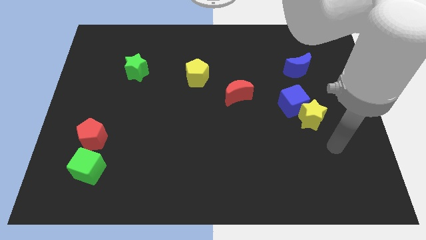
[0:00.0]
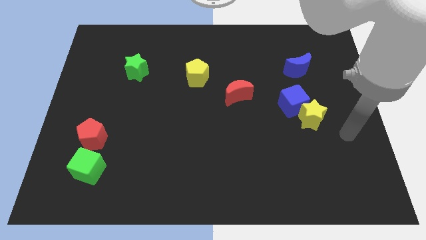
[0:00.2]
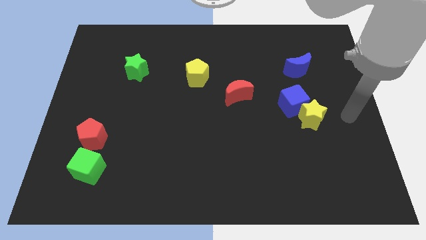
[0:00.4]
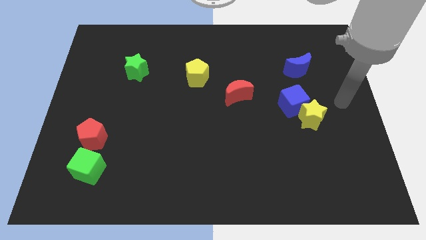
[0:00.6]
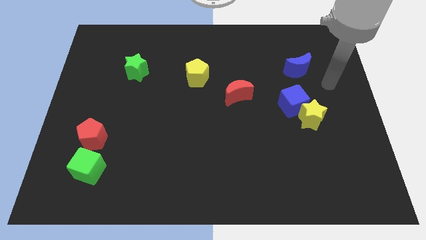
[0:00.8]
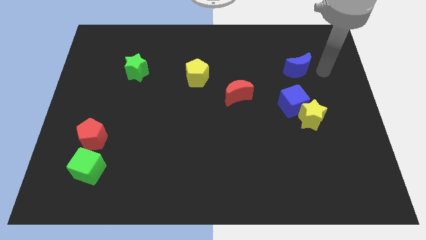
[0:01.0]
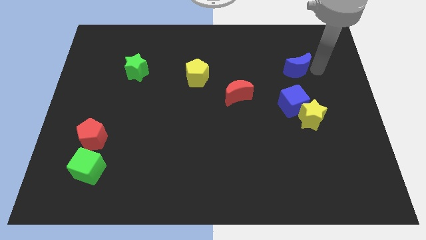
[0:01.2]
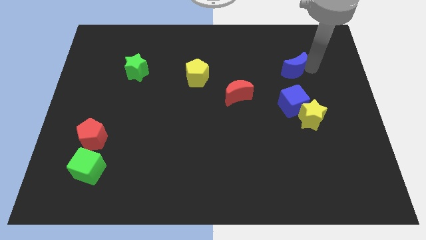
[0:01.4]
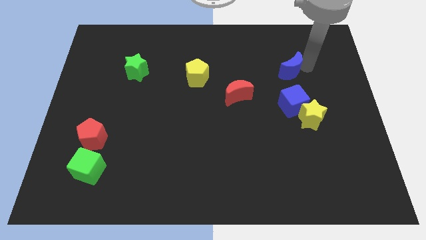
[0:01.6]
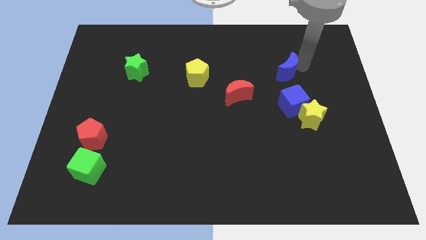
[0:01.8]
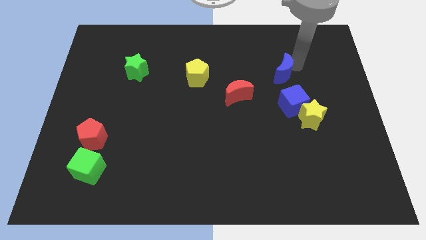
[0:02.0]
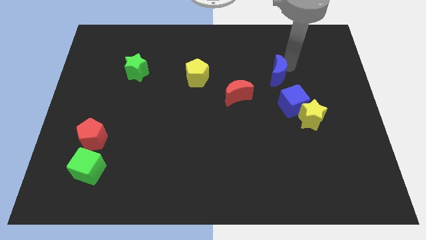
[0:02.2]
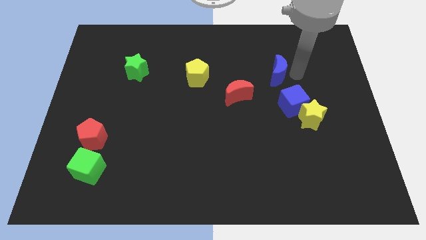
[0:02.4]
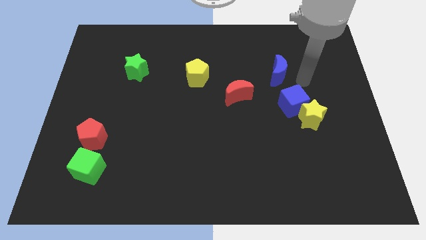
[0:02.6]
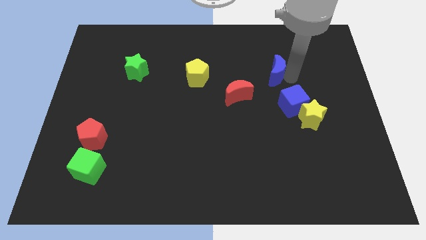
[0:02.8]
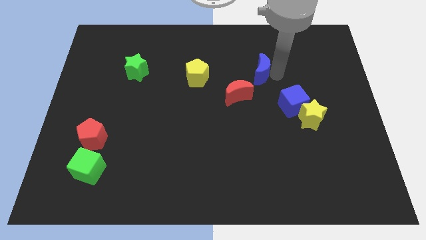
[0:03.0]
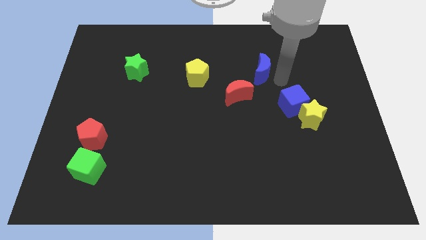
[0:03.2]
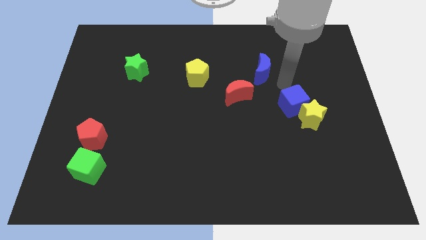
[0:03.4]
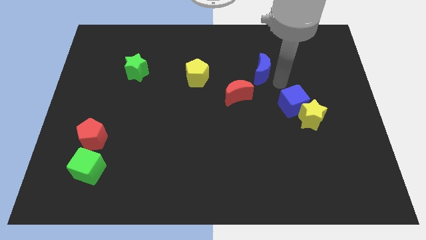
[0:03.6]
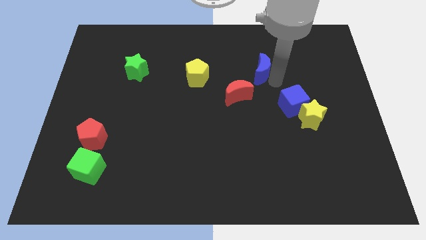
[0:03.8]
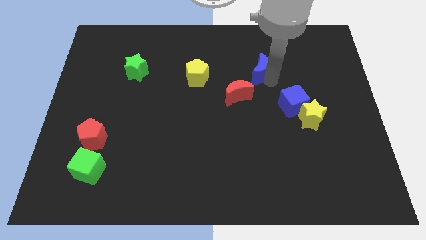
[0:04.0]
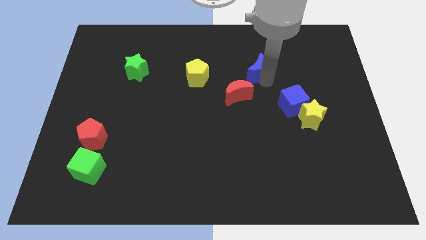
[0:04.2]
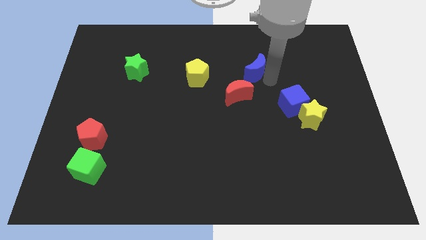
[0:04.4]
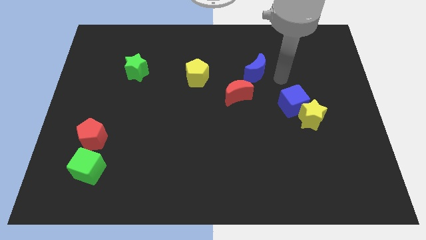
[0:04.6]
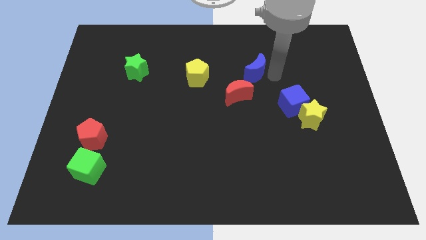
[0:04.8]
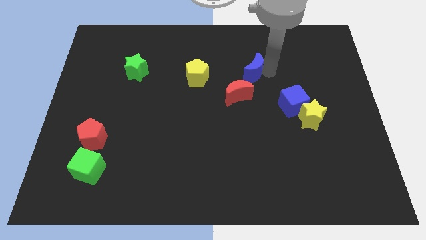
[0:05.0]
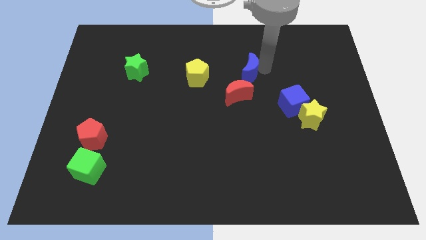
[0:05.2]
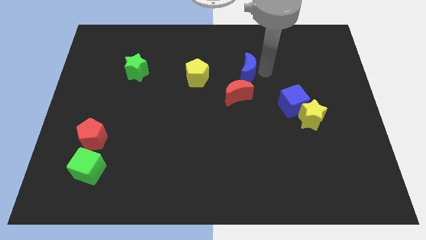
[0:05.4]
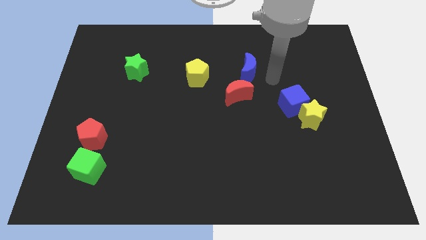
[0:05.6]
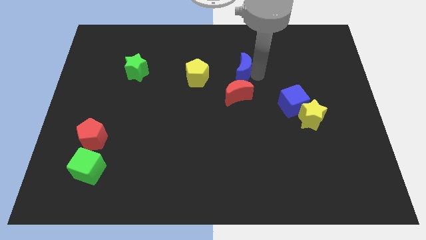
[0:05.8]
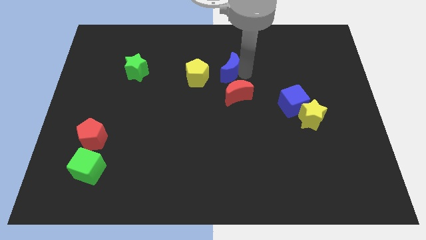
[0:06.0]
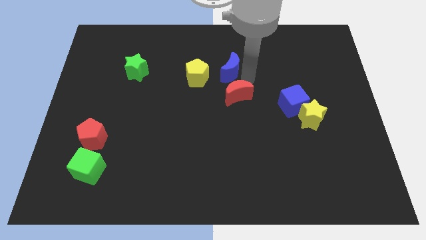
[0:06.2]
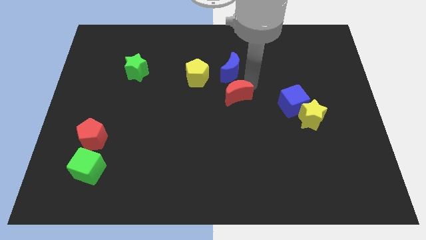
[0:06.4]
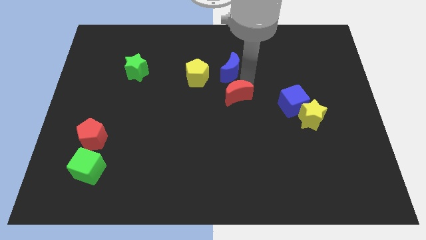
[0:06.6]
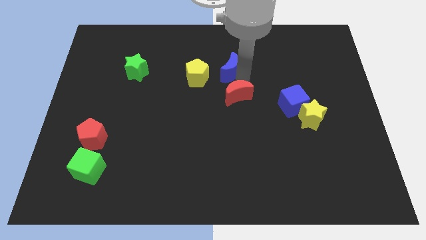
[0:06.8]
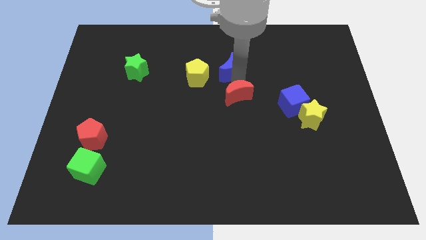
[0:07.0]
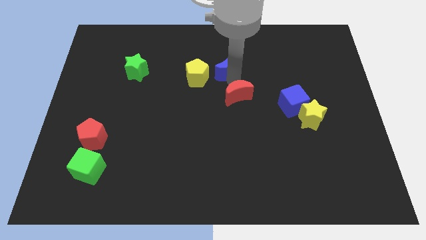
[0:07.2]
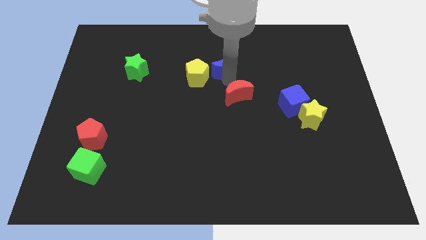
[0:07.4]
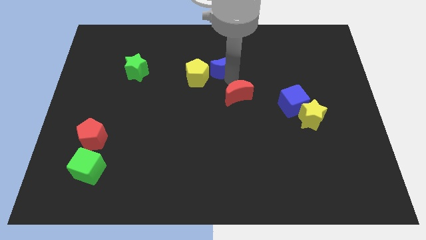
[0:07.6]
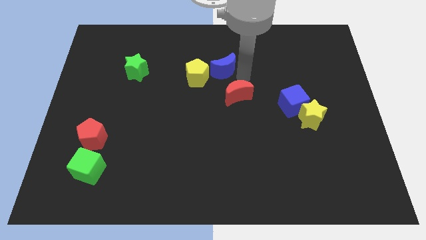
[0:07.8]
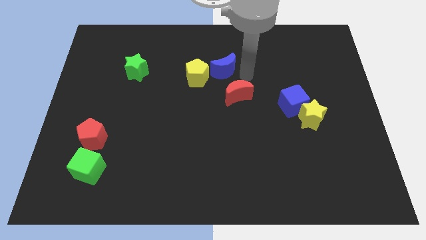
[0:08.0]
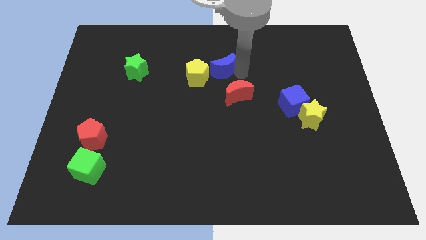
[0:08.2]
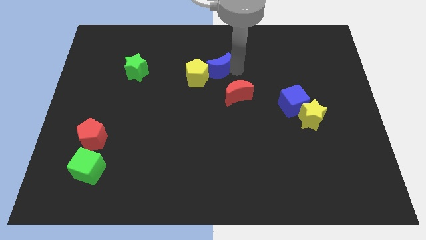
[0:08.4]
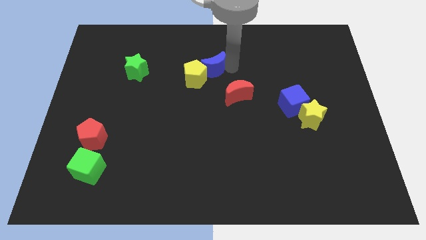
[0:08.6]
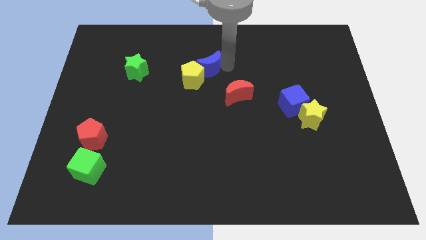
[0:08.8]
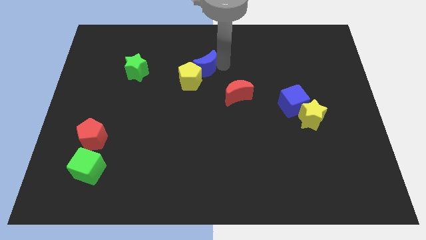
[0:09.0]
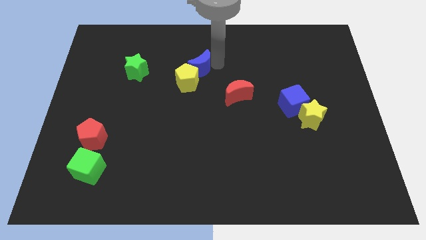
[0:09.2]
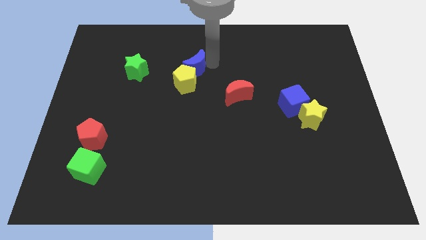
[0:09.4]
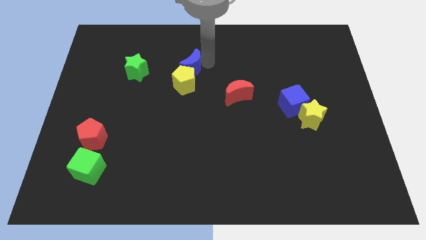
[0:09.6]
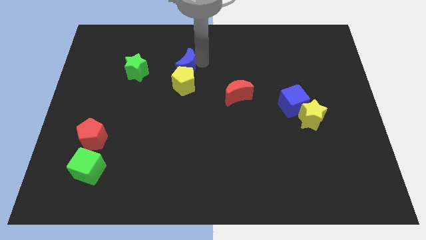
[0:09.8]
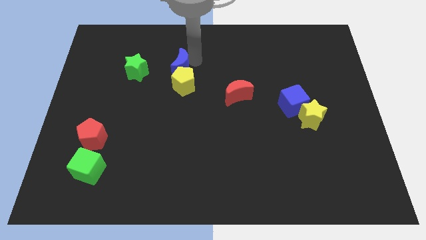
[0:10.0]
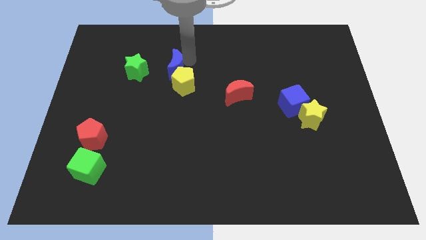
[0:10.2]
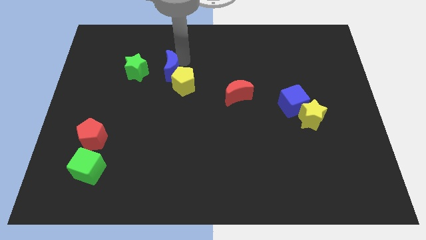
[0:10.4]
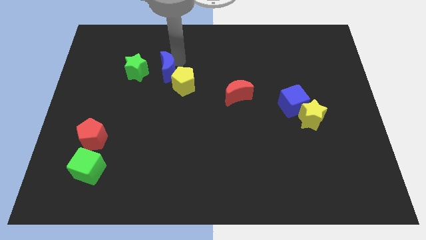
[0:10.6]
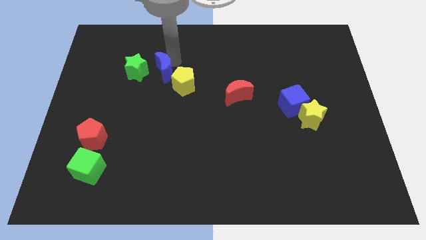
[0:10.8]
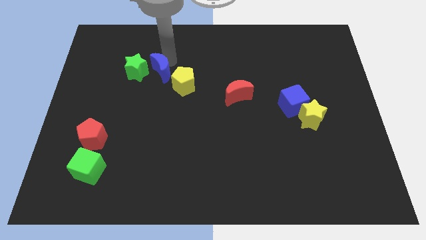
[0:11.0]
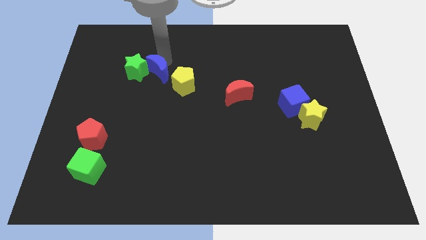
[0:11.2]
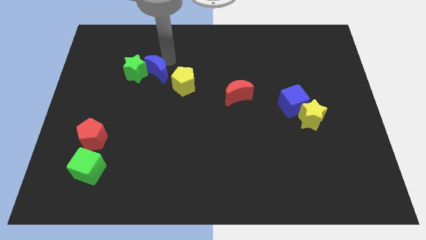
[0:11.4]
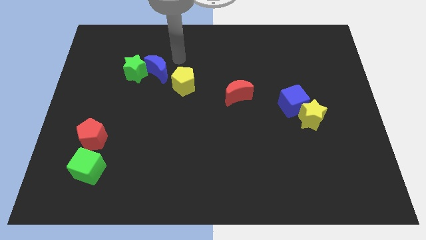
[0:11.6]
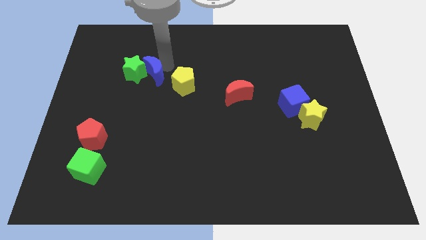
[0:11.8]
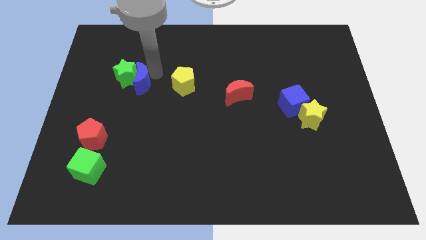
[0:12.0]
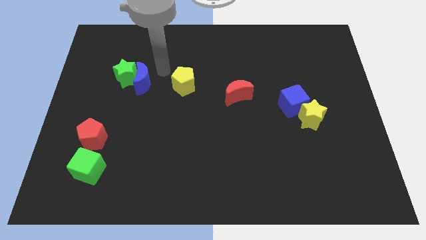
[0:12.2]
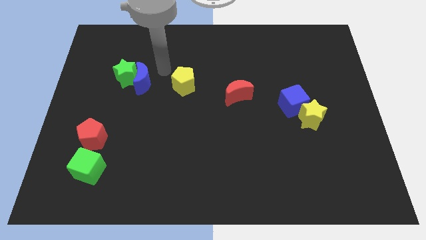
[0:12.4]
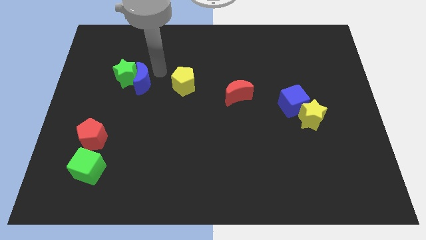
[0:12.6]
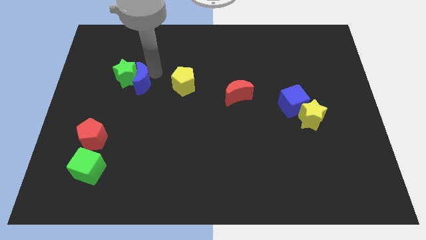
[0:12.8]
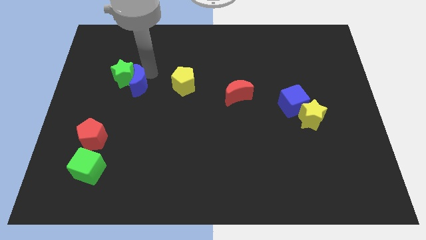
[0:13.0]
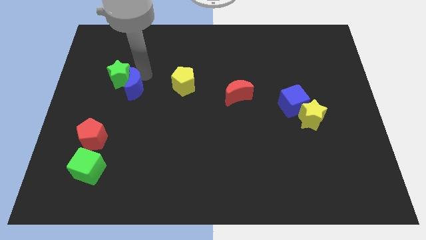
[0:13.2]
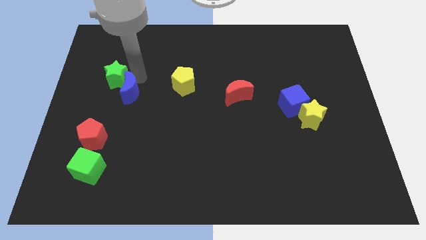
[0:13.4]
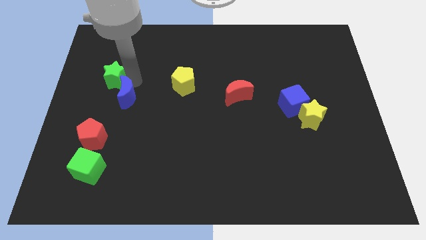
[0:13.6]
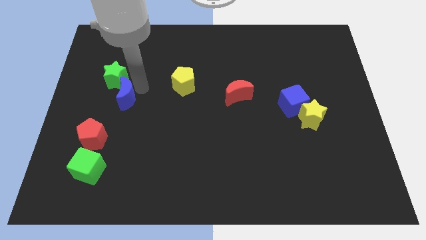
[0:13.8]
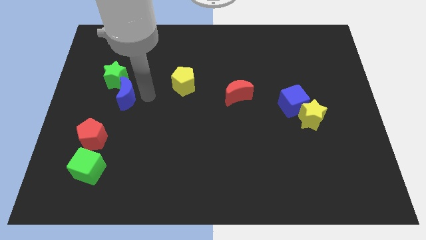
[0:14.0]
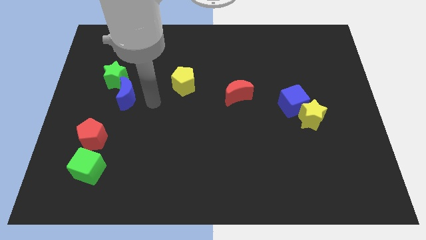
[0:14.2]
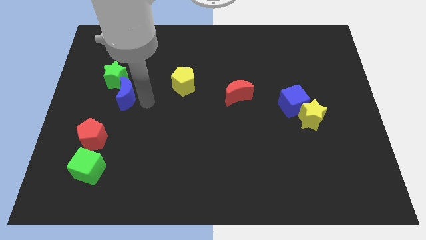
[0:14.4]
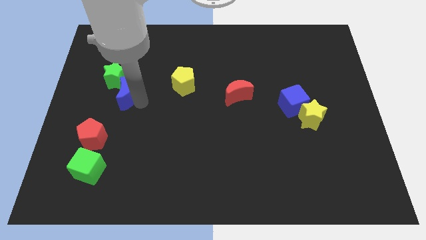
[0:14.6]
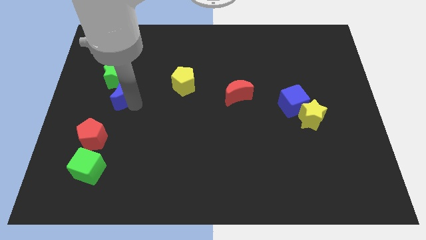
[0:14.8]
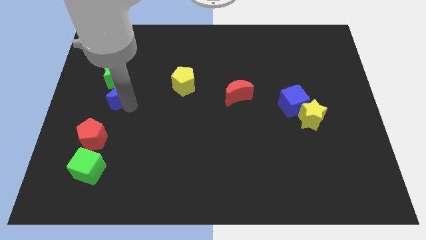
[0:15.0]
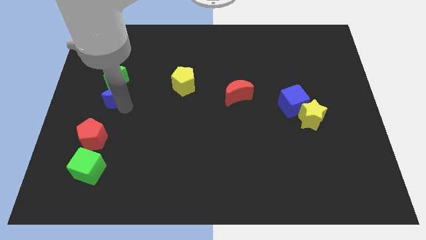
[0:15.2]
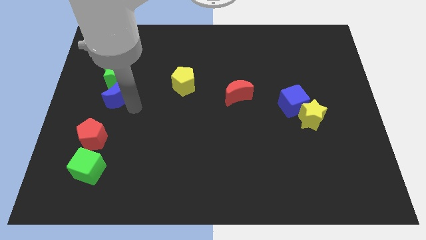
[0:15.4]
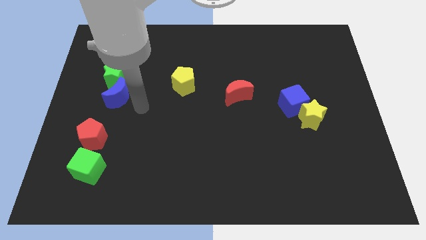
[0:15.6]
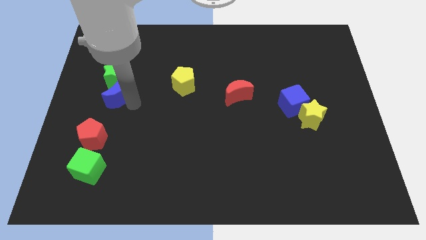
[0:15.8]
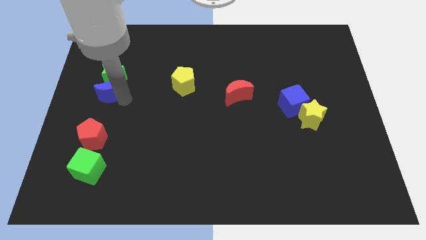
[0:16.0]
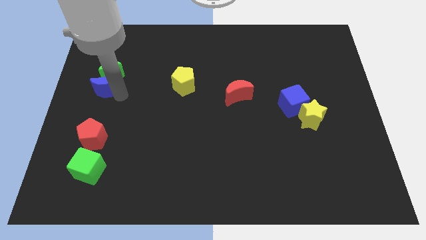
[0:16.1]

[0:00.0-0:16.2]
put the blue moon to the left side of the board
